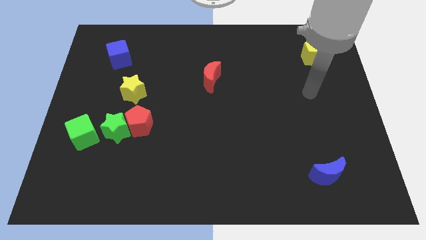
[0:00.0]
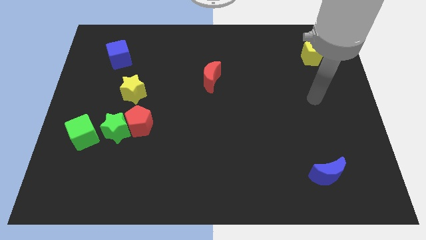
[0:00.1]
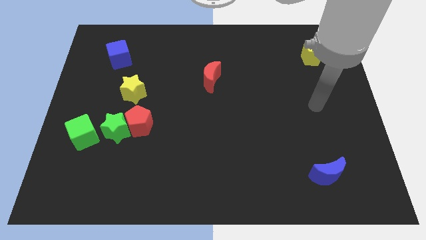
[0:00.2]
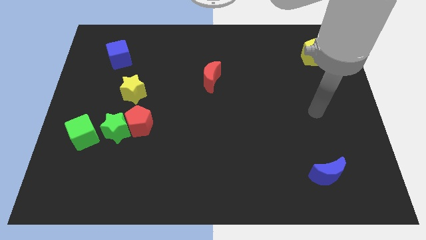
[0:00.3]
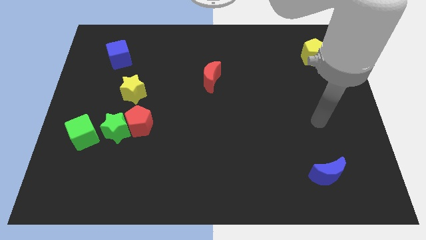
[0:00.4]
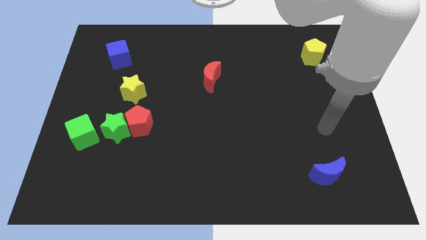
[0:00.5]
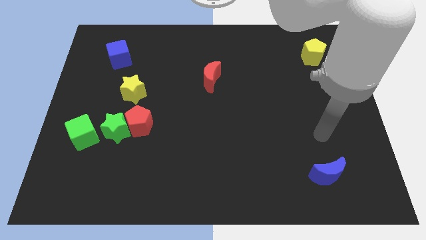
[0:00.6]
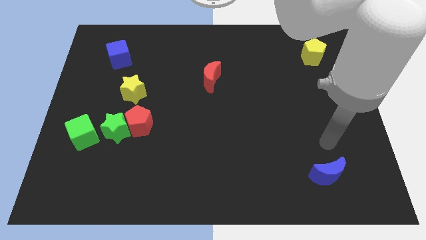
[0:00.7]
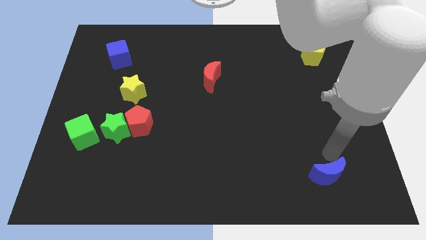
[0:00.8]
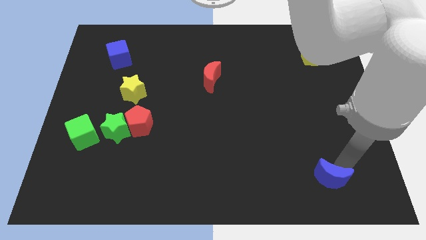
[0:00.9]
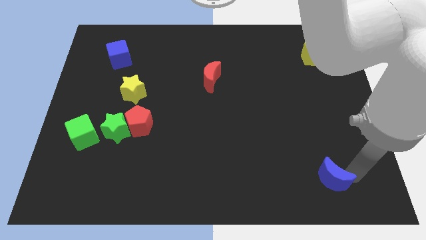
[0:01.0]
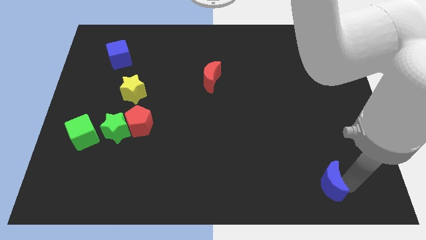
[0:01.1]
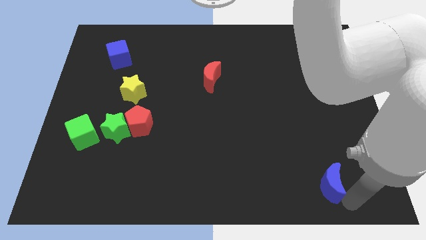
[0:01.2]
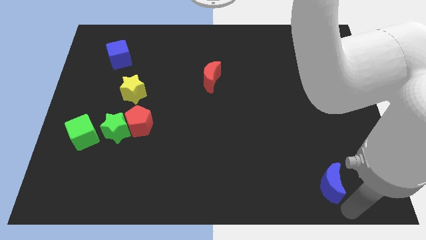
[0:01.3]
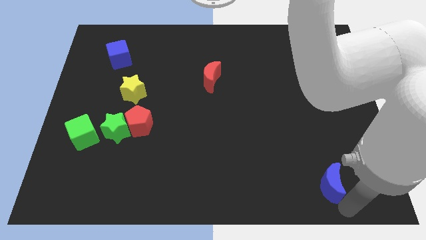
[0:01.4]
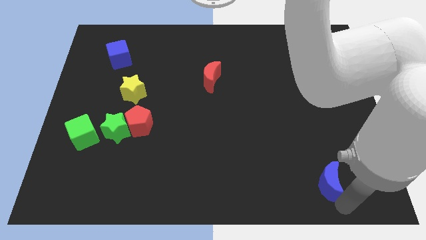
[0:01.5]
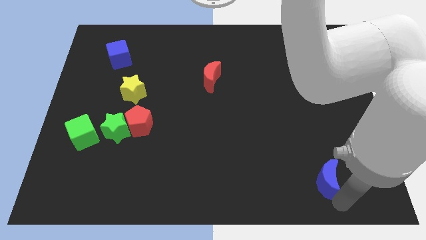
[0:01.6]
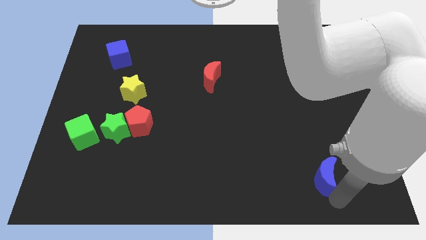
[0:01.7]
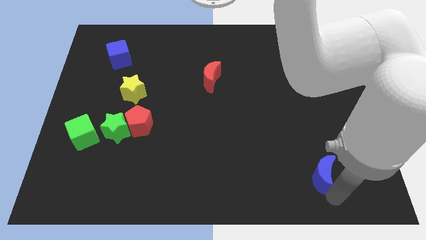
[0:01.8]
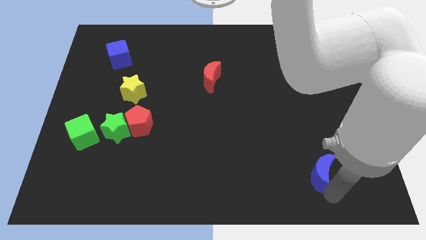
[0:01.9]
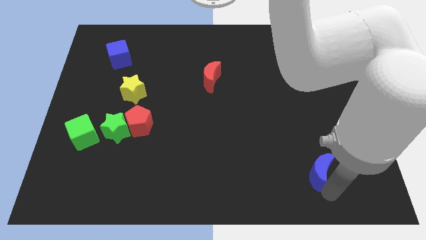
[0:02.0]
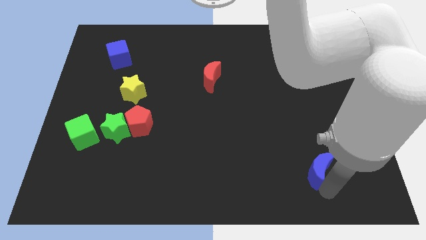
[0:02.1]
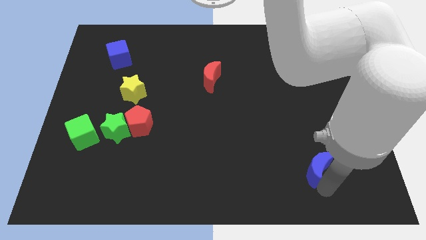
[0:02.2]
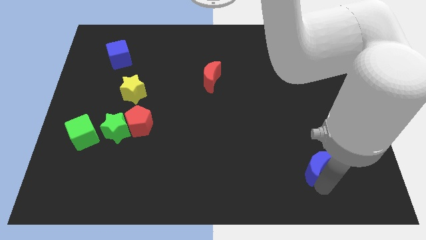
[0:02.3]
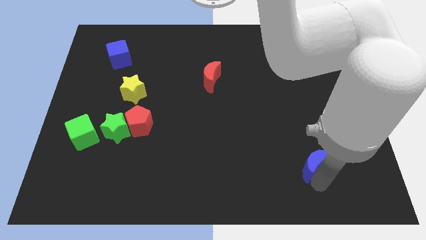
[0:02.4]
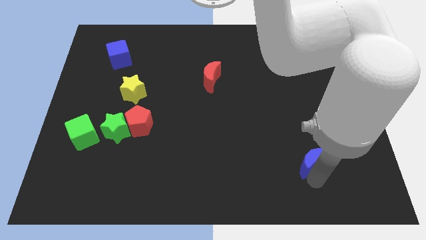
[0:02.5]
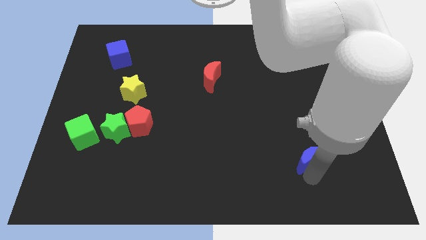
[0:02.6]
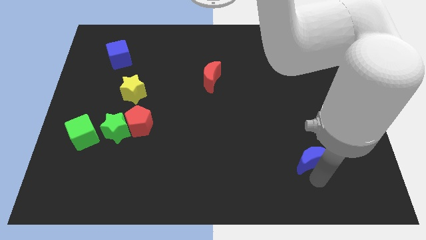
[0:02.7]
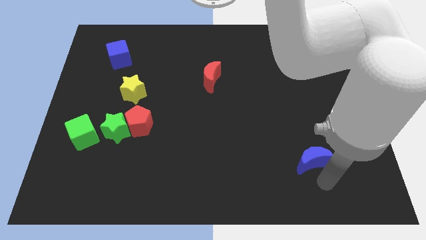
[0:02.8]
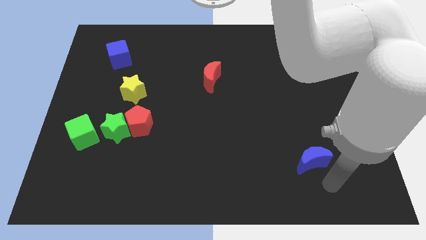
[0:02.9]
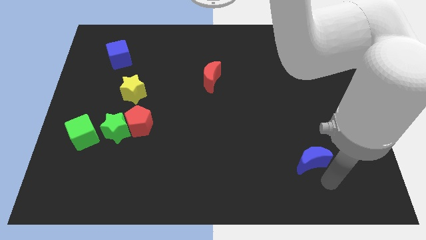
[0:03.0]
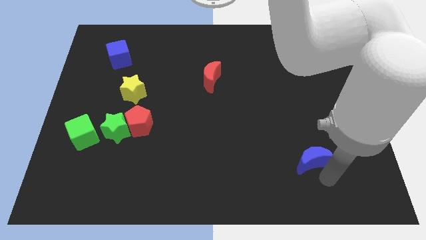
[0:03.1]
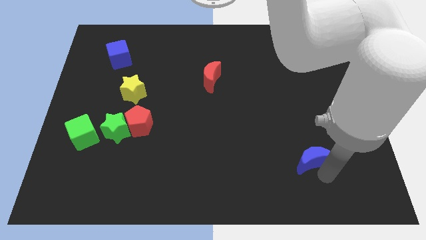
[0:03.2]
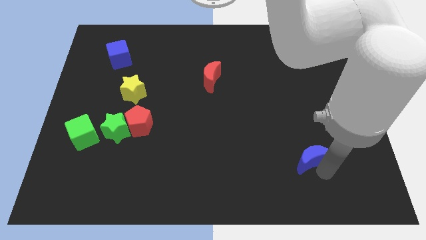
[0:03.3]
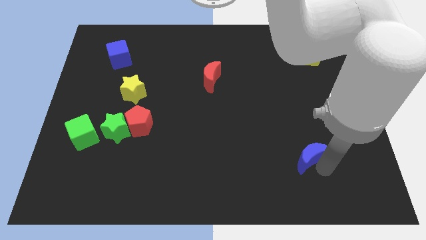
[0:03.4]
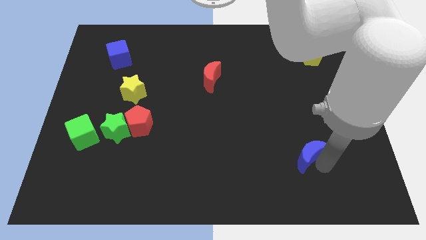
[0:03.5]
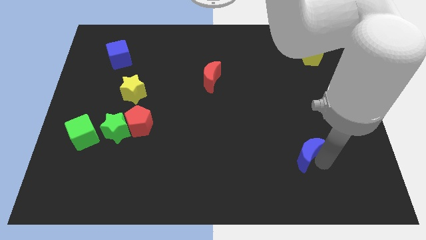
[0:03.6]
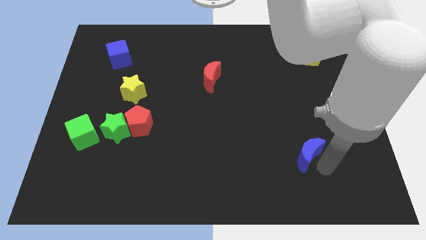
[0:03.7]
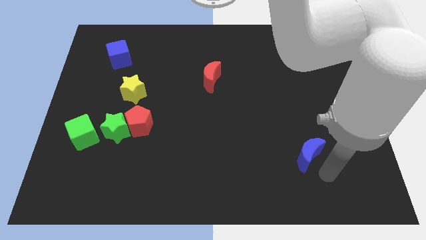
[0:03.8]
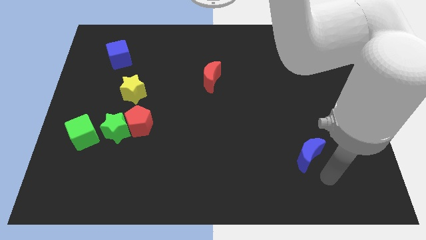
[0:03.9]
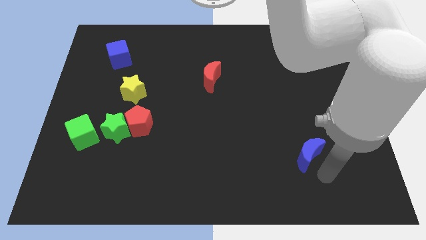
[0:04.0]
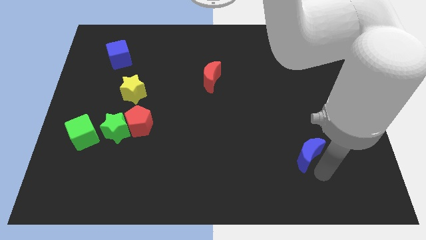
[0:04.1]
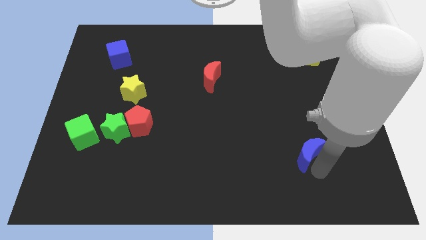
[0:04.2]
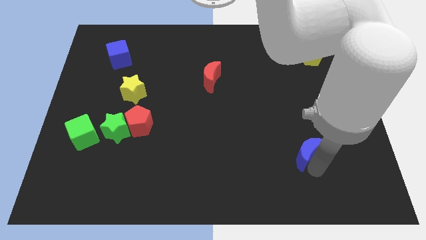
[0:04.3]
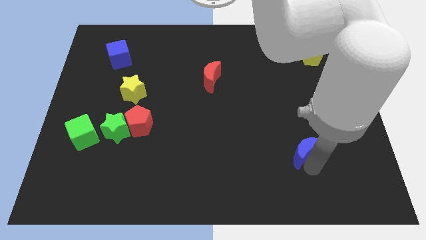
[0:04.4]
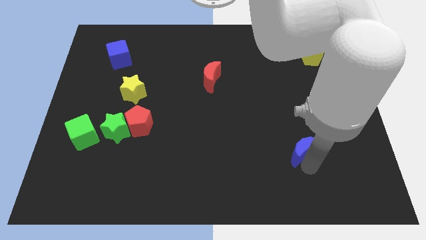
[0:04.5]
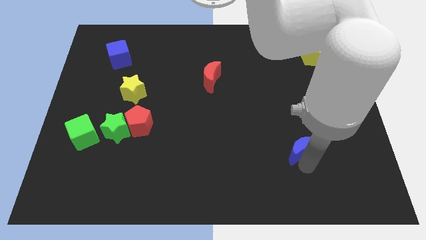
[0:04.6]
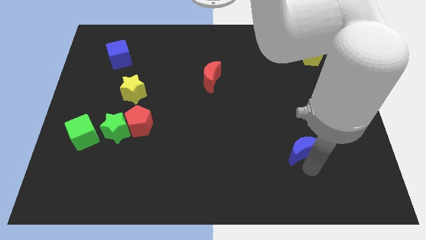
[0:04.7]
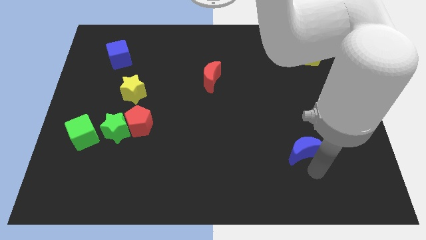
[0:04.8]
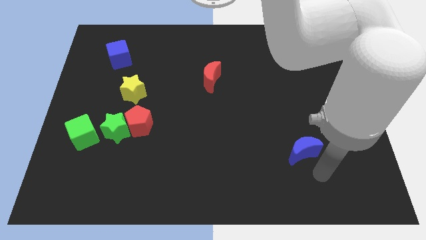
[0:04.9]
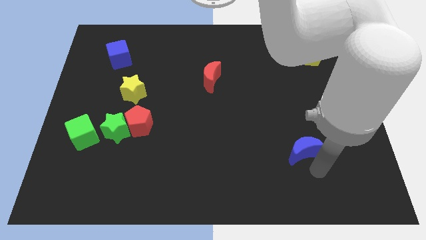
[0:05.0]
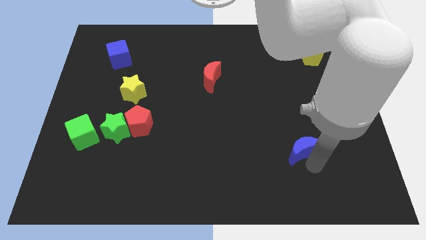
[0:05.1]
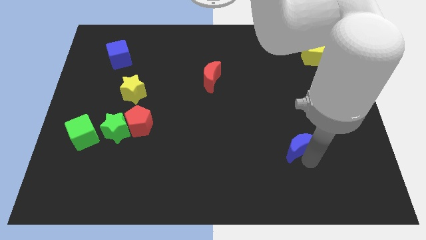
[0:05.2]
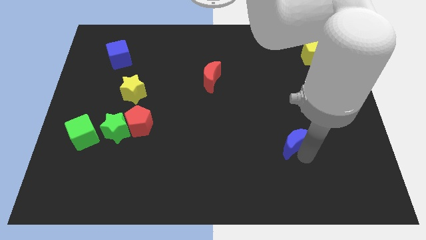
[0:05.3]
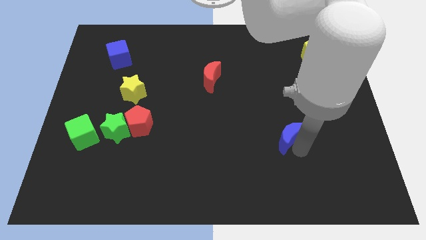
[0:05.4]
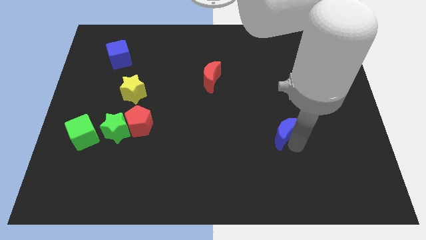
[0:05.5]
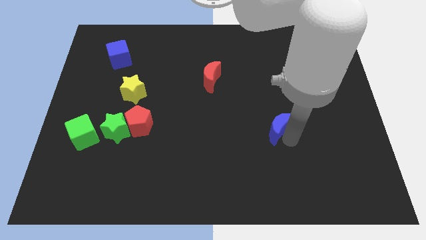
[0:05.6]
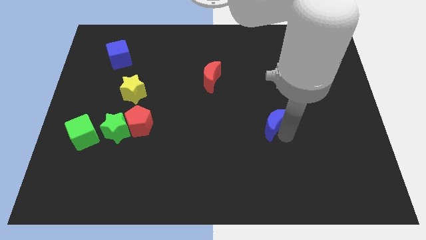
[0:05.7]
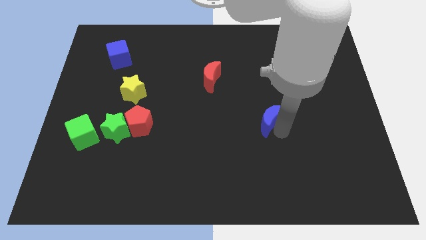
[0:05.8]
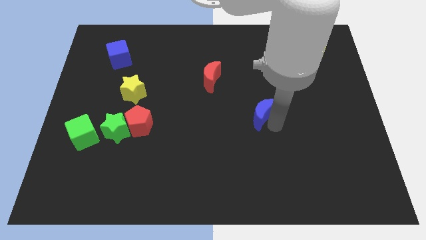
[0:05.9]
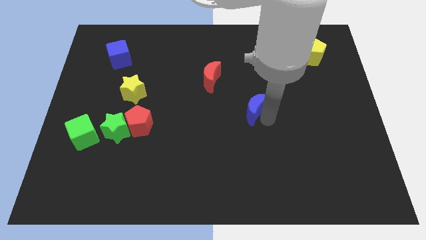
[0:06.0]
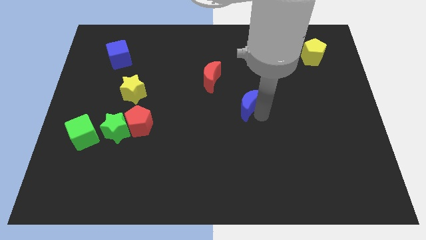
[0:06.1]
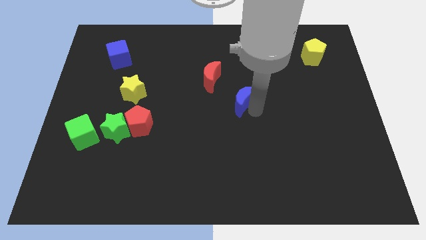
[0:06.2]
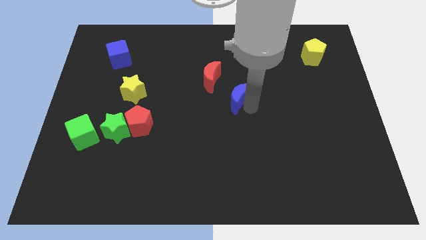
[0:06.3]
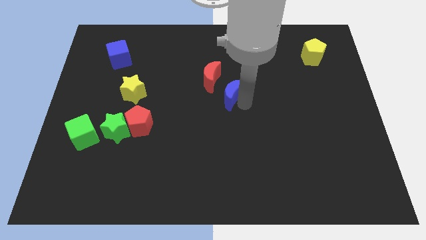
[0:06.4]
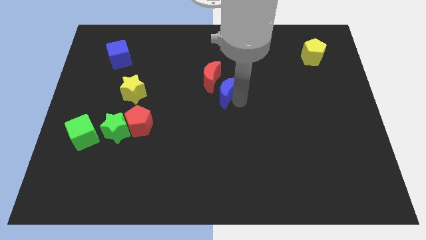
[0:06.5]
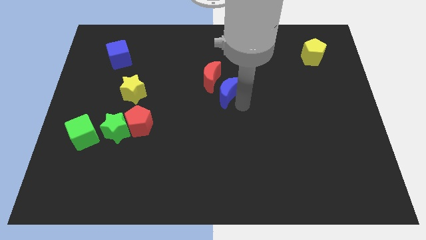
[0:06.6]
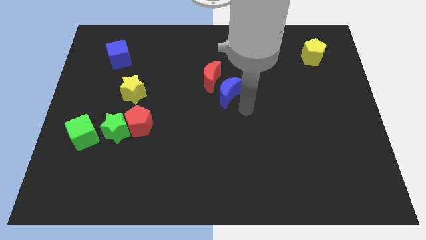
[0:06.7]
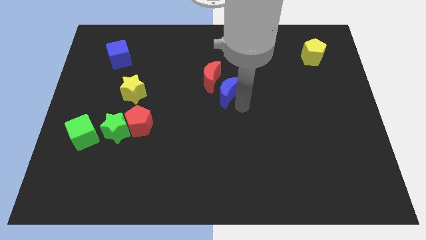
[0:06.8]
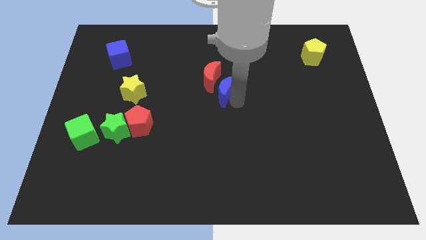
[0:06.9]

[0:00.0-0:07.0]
move the blue moon next to the red moon
